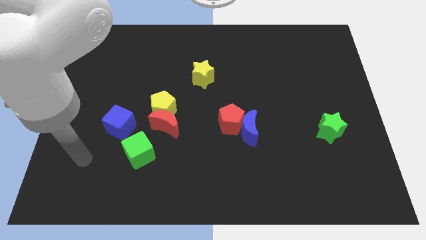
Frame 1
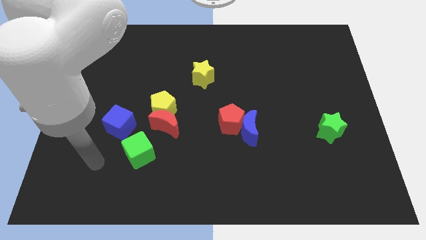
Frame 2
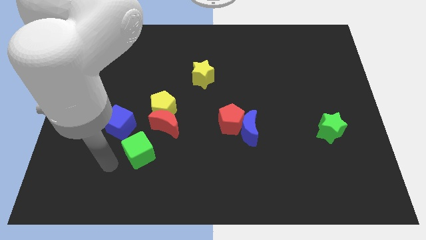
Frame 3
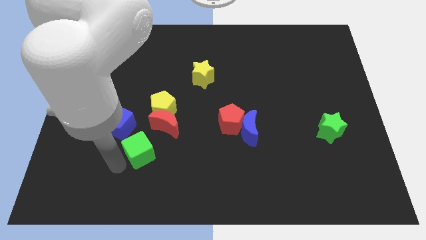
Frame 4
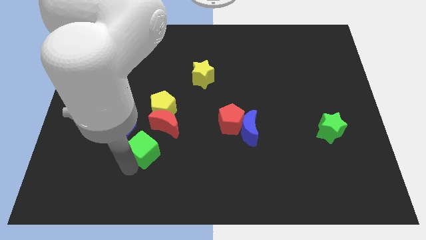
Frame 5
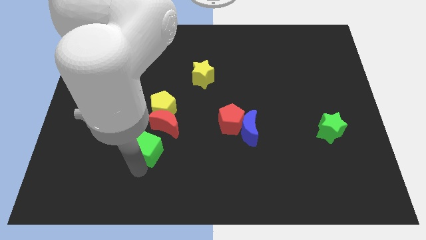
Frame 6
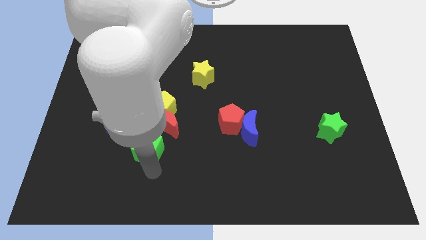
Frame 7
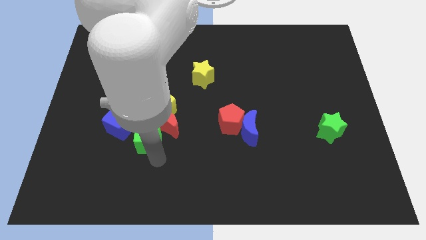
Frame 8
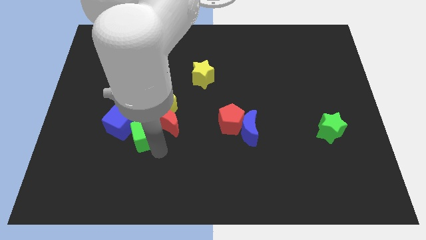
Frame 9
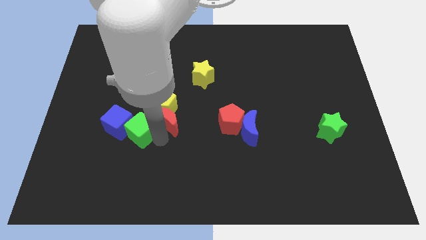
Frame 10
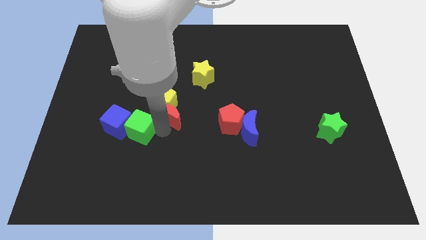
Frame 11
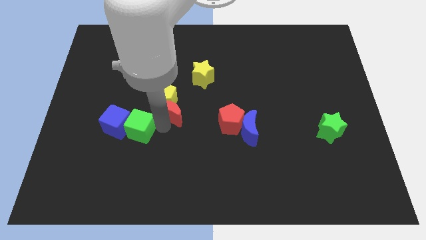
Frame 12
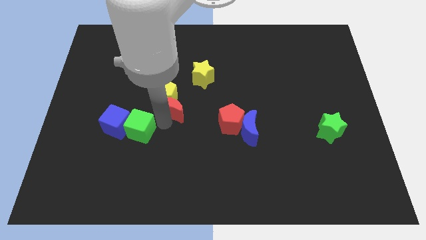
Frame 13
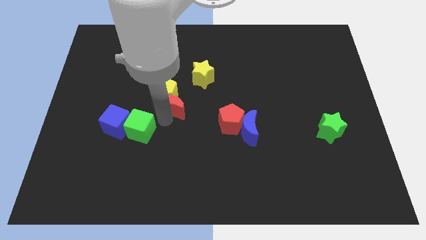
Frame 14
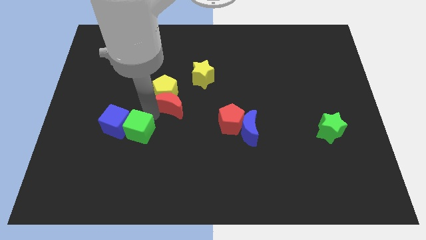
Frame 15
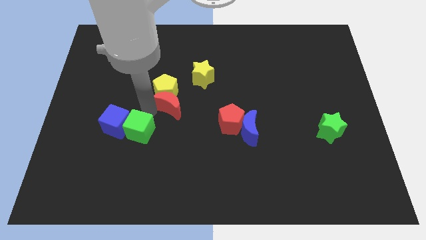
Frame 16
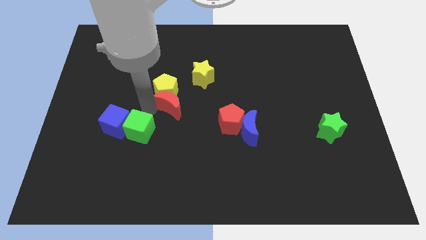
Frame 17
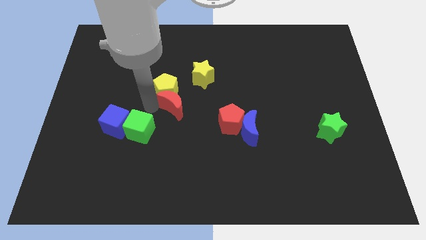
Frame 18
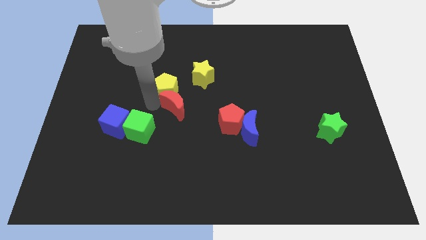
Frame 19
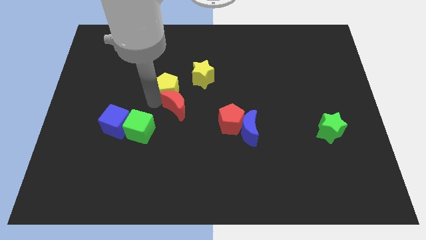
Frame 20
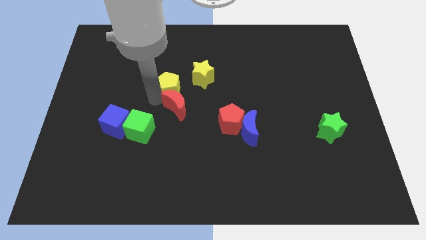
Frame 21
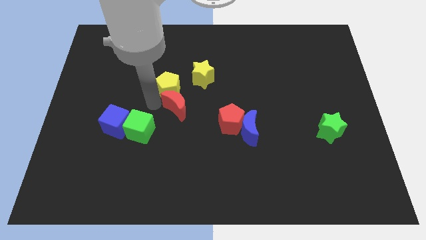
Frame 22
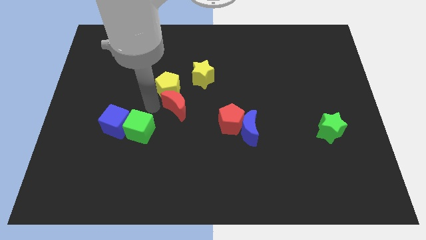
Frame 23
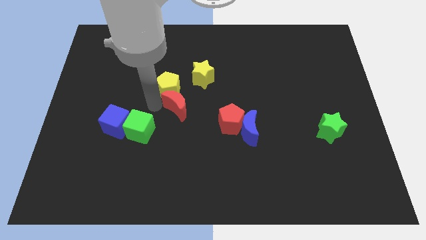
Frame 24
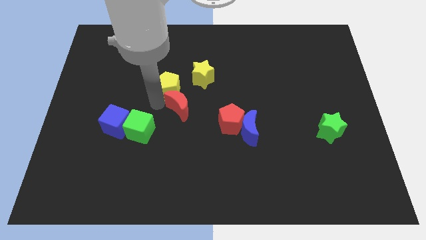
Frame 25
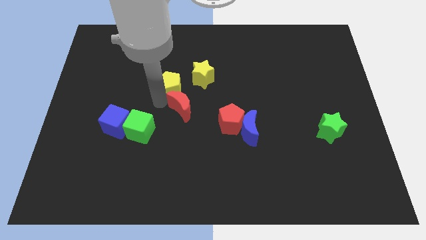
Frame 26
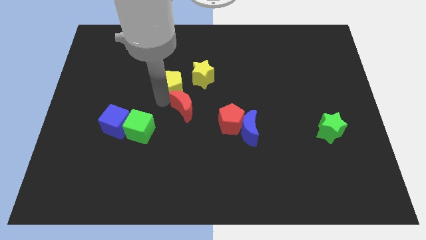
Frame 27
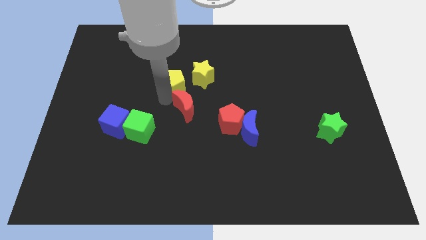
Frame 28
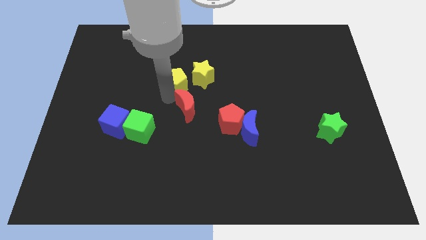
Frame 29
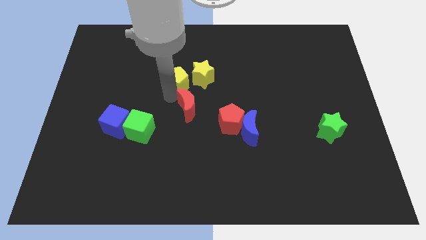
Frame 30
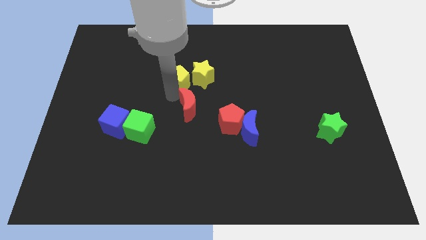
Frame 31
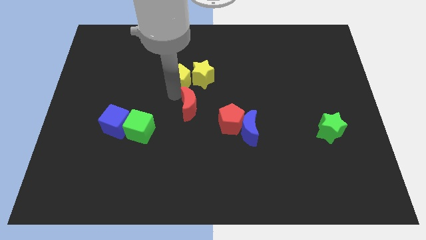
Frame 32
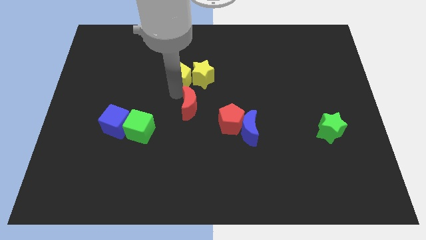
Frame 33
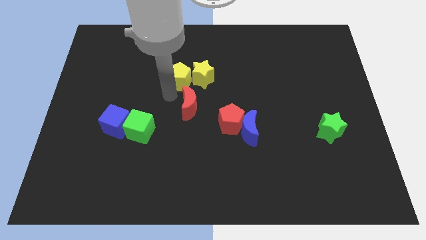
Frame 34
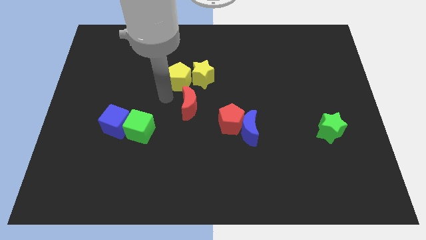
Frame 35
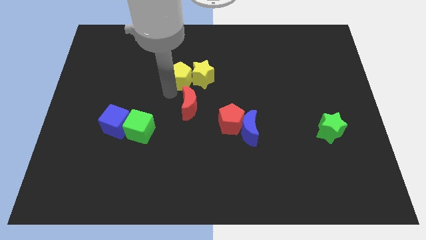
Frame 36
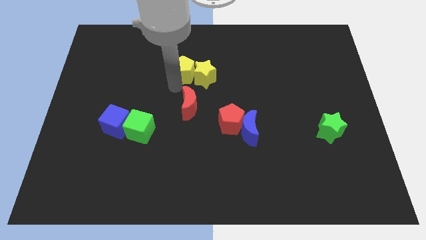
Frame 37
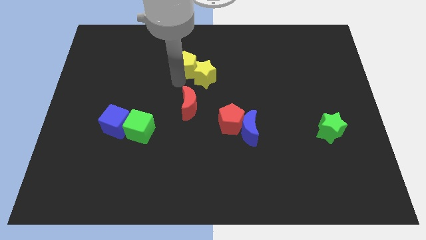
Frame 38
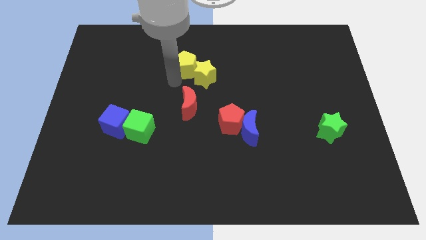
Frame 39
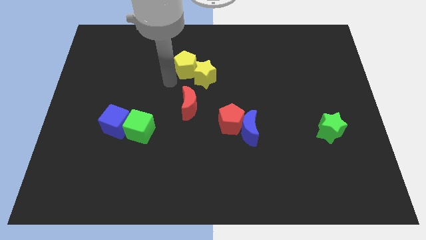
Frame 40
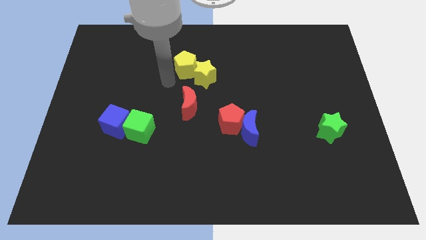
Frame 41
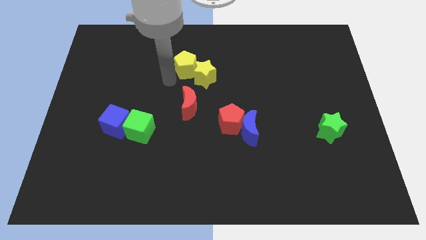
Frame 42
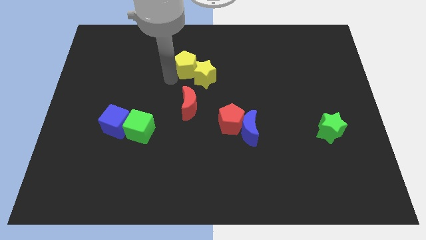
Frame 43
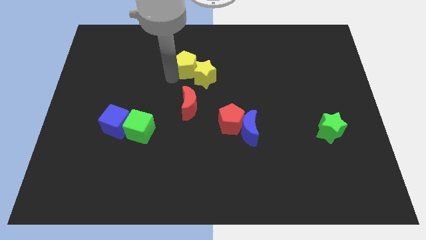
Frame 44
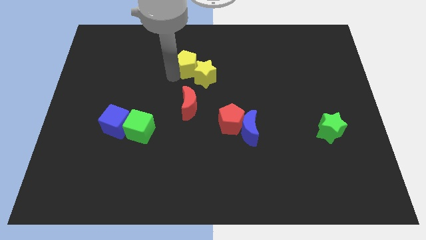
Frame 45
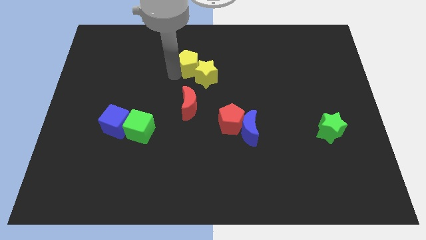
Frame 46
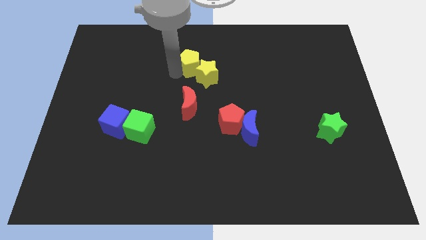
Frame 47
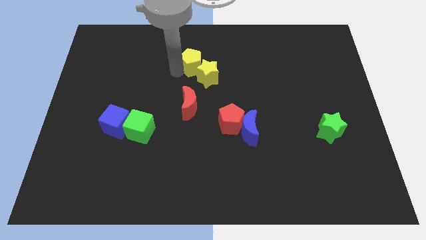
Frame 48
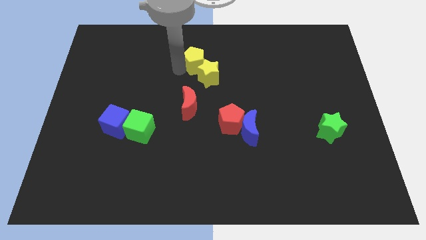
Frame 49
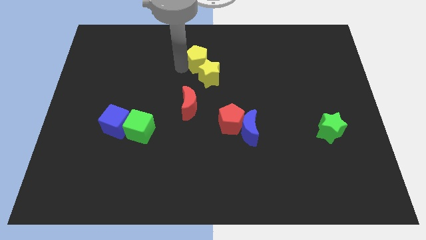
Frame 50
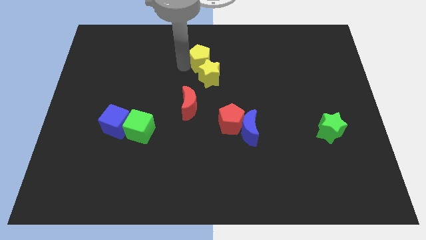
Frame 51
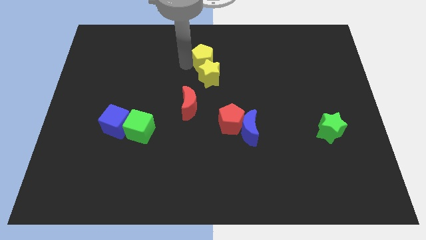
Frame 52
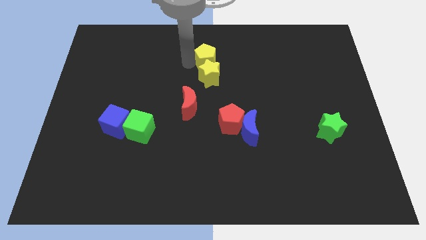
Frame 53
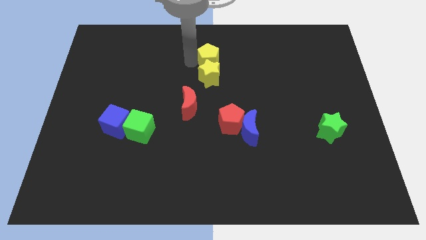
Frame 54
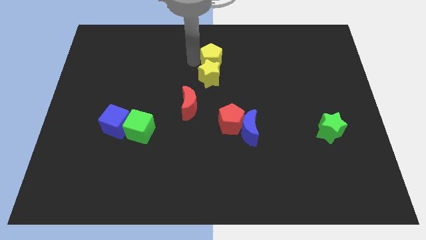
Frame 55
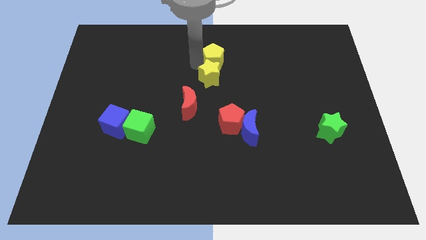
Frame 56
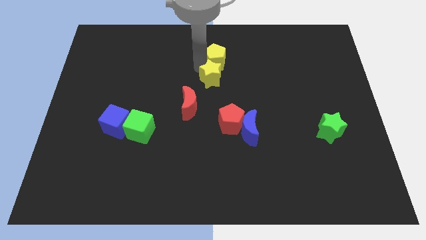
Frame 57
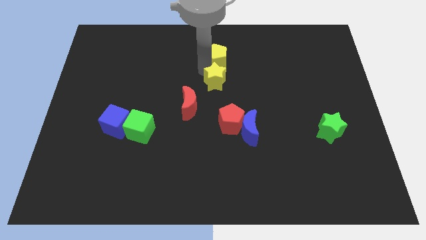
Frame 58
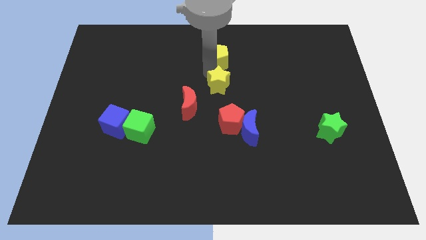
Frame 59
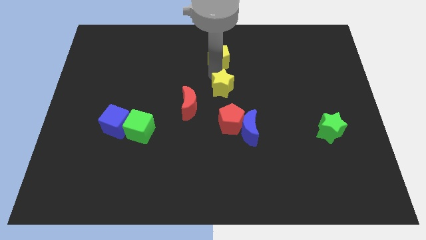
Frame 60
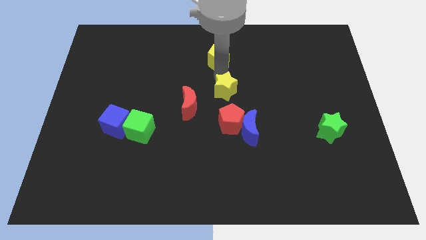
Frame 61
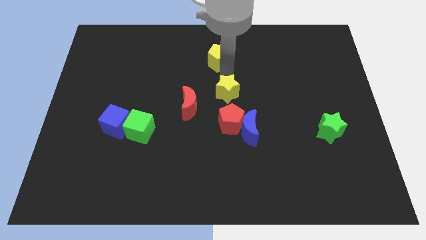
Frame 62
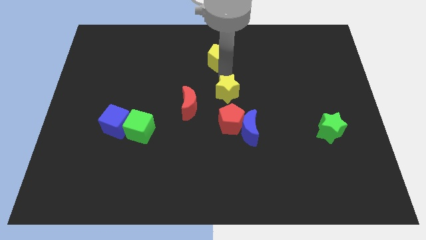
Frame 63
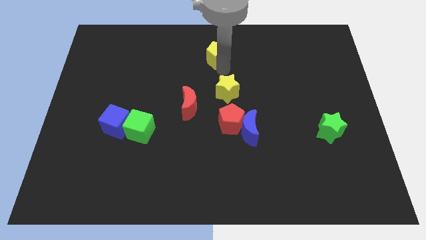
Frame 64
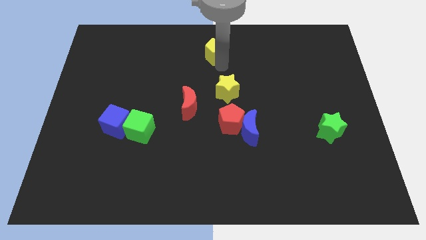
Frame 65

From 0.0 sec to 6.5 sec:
slide the yellow pentagon to the top

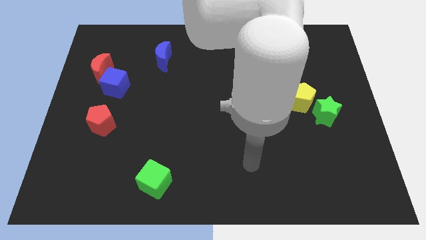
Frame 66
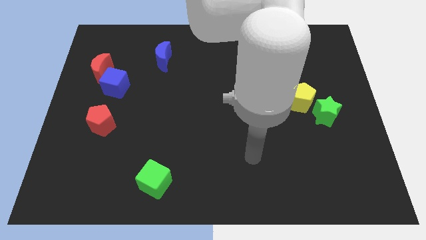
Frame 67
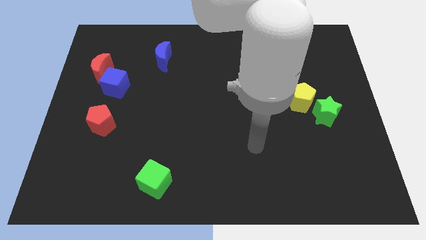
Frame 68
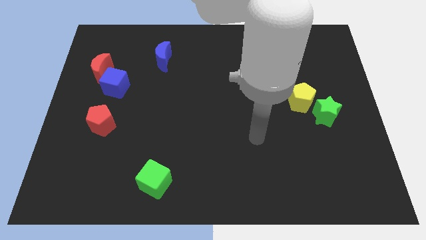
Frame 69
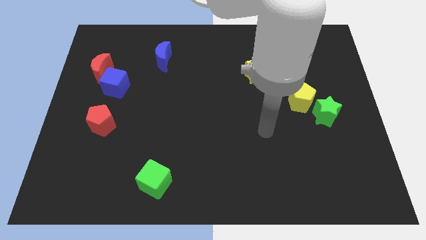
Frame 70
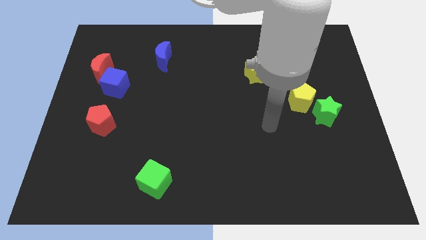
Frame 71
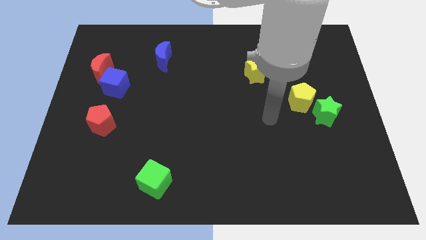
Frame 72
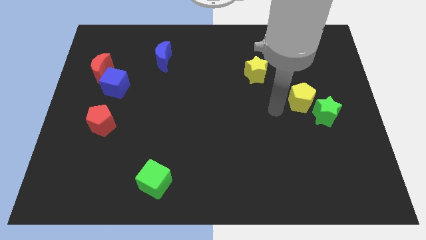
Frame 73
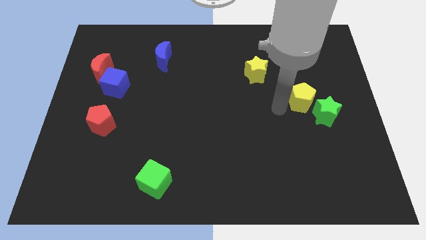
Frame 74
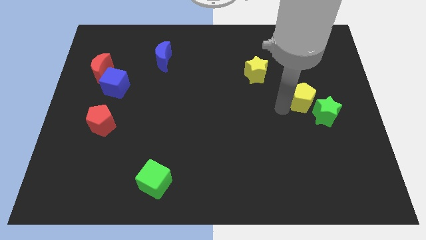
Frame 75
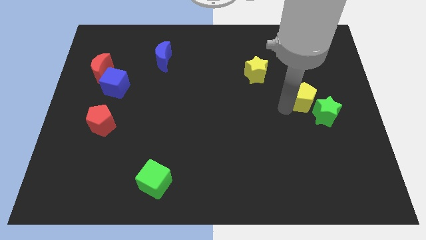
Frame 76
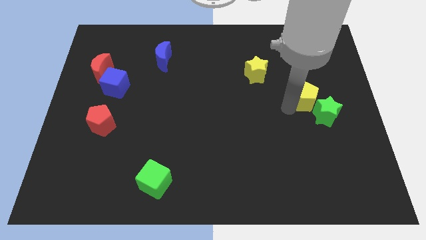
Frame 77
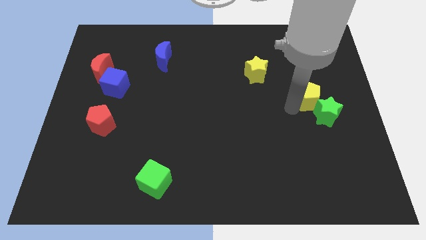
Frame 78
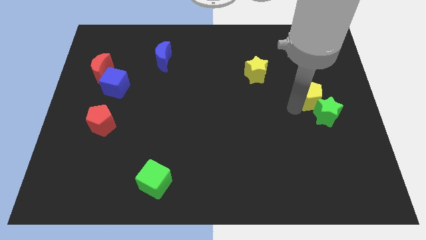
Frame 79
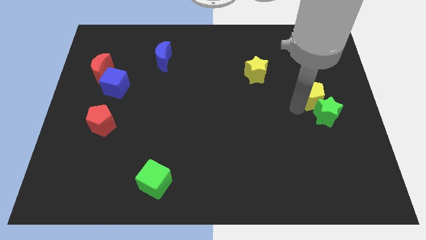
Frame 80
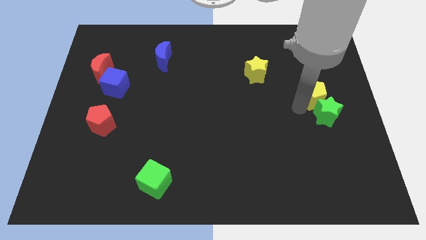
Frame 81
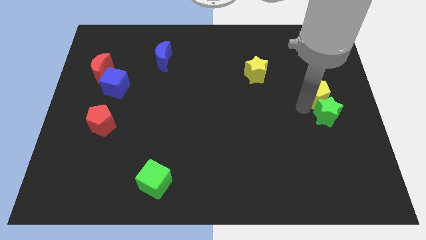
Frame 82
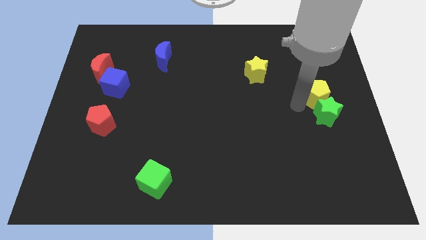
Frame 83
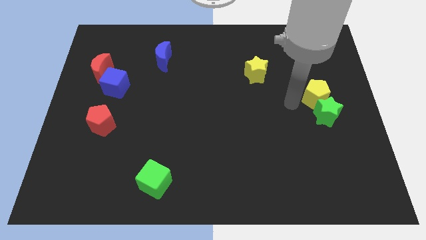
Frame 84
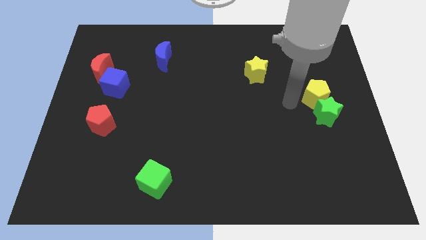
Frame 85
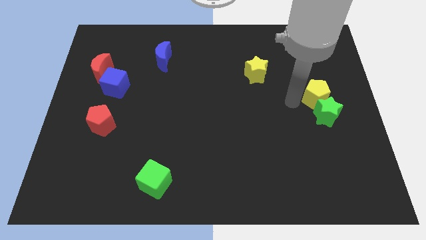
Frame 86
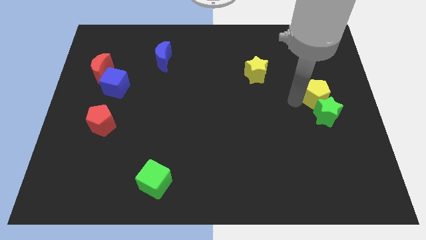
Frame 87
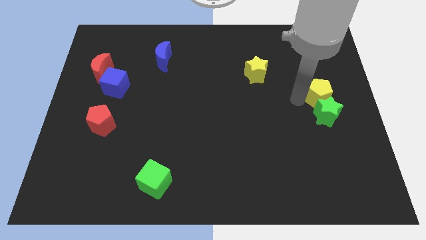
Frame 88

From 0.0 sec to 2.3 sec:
slide the yellow pentagon to the right side of the board
